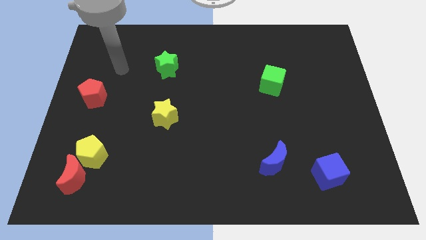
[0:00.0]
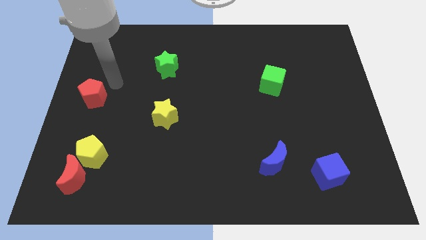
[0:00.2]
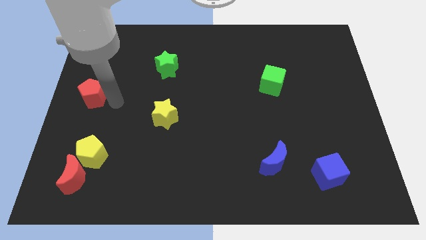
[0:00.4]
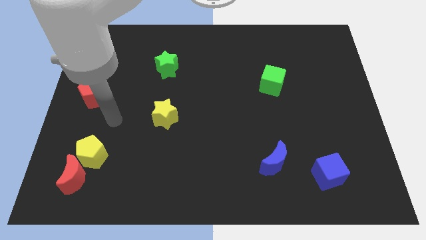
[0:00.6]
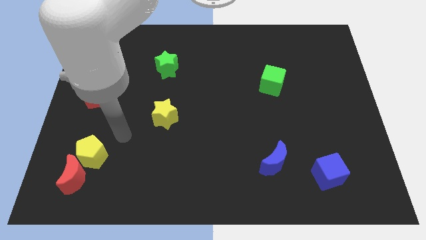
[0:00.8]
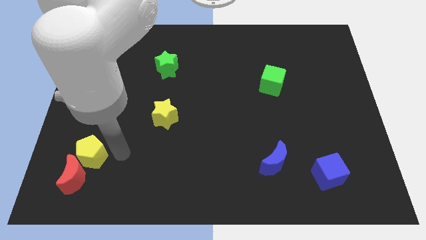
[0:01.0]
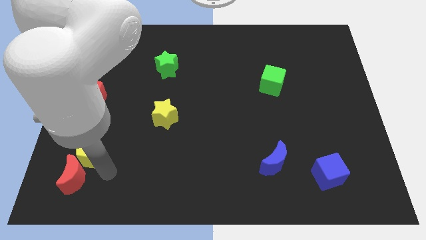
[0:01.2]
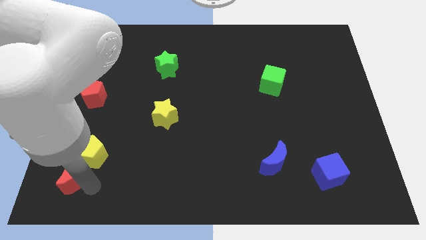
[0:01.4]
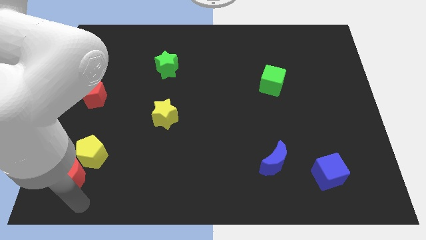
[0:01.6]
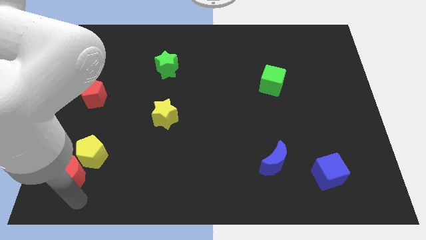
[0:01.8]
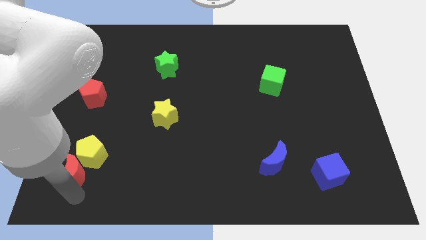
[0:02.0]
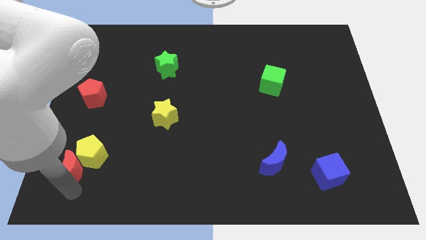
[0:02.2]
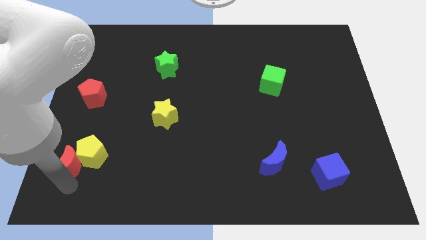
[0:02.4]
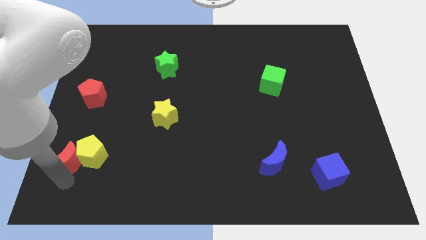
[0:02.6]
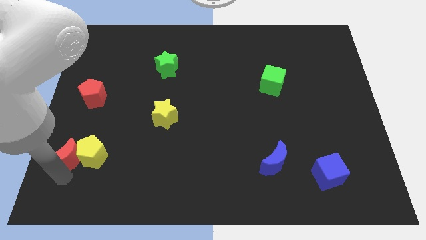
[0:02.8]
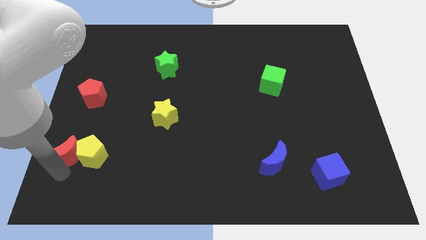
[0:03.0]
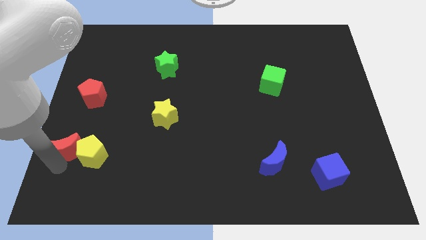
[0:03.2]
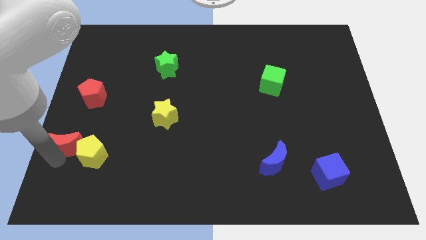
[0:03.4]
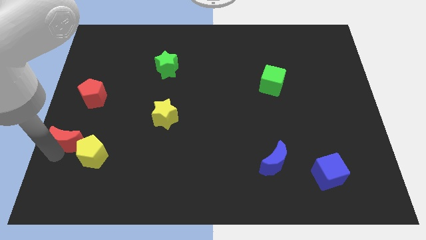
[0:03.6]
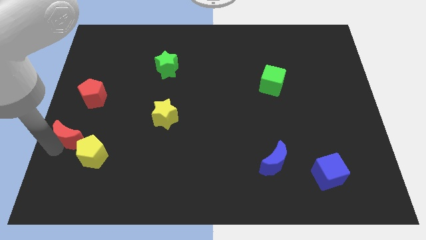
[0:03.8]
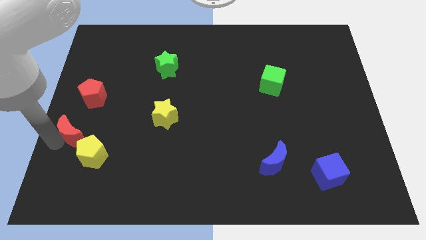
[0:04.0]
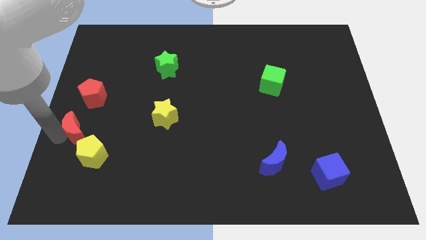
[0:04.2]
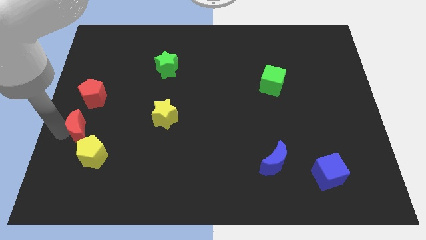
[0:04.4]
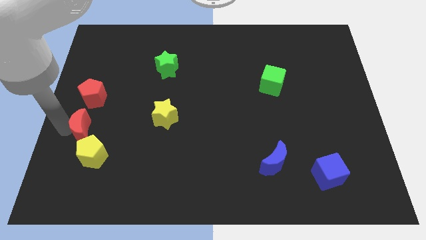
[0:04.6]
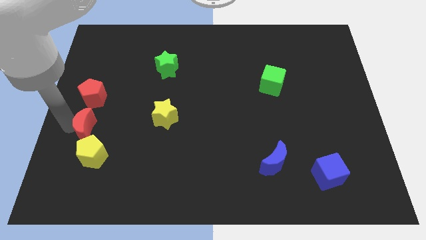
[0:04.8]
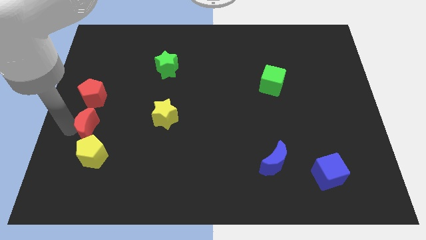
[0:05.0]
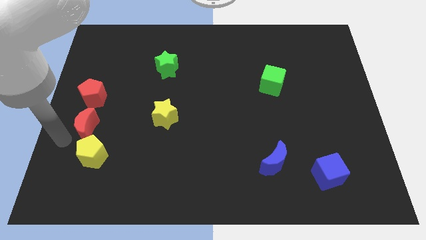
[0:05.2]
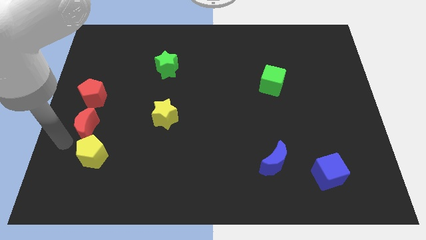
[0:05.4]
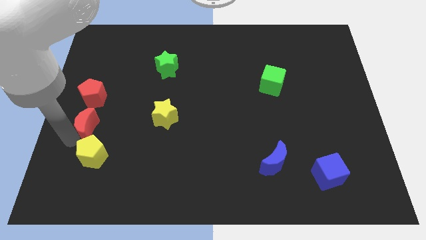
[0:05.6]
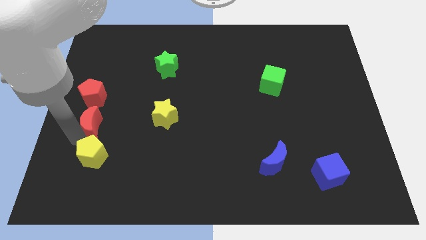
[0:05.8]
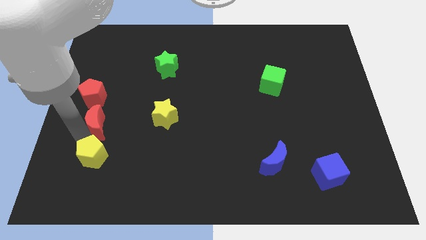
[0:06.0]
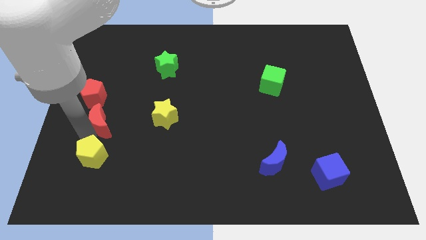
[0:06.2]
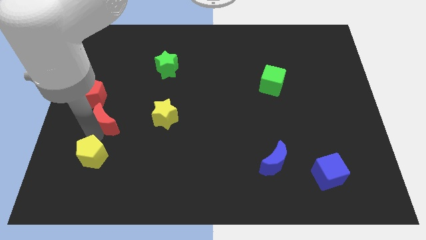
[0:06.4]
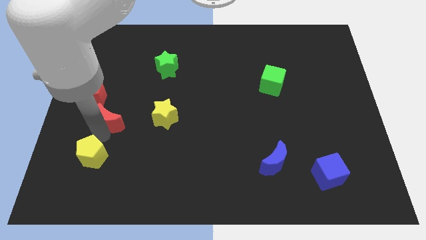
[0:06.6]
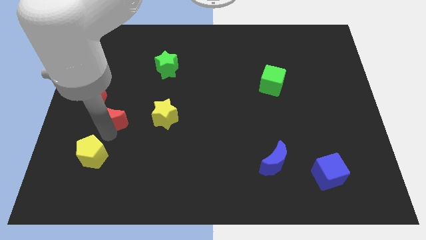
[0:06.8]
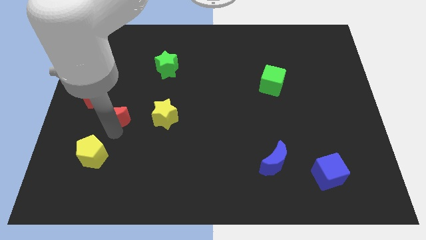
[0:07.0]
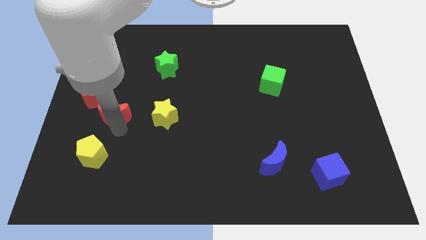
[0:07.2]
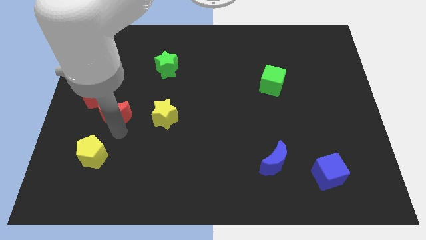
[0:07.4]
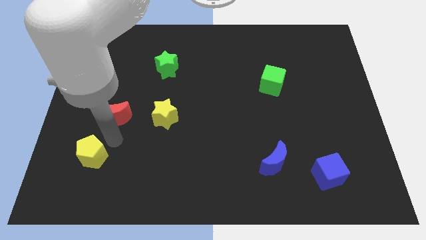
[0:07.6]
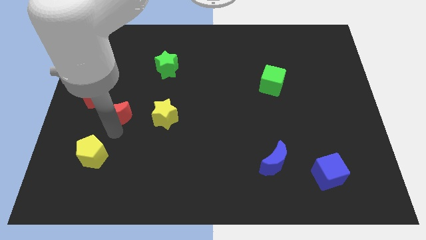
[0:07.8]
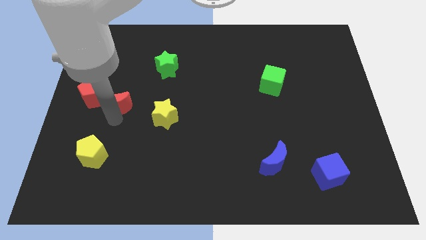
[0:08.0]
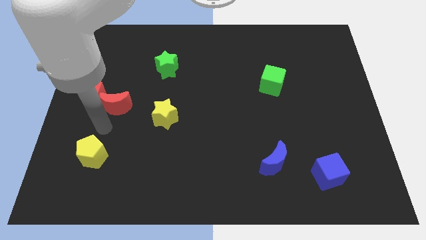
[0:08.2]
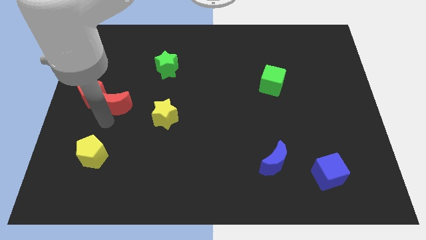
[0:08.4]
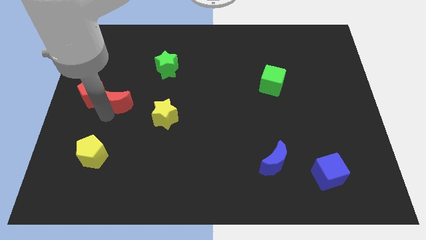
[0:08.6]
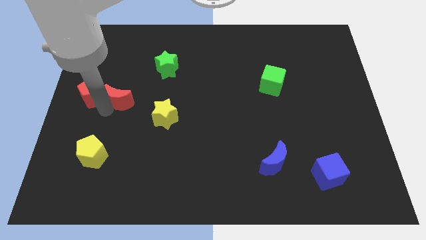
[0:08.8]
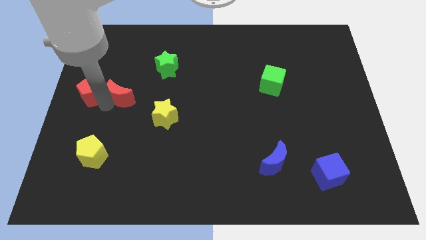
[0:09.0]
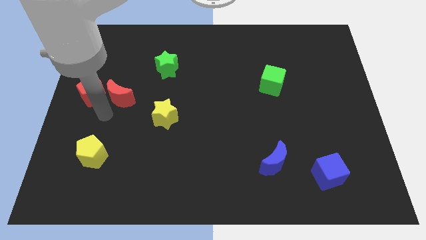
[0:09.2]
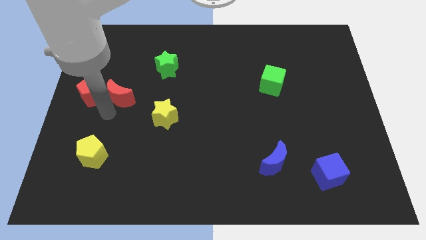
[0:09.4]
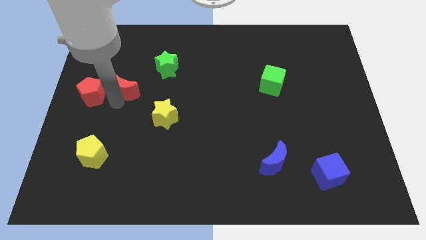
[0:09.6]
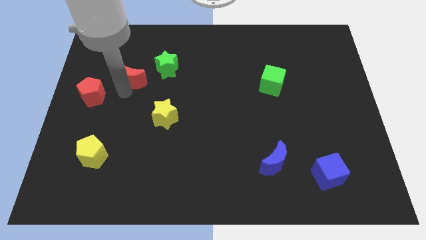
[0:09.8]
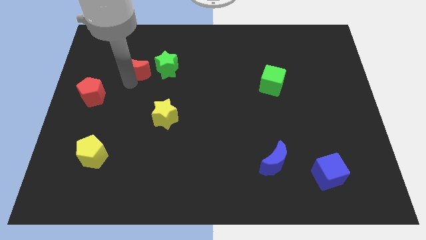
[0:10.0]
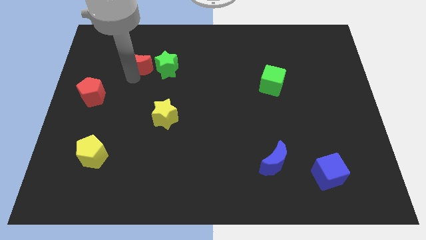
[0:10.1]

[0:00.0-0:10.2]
push the red moon to the top left side of the green star

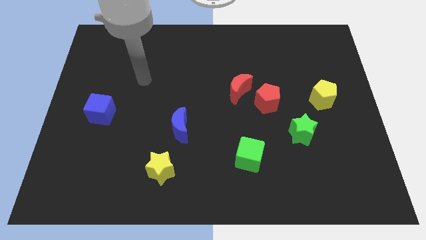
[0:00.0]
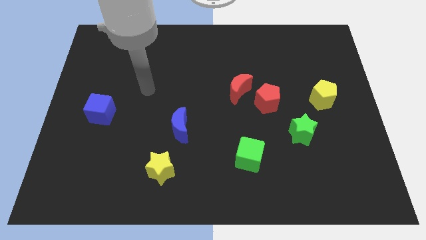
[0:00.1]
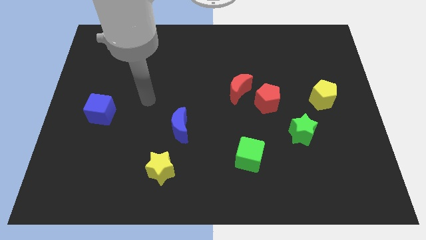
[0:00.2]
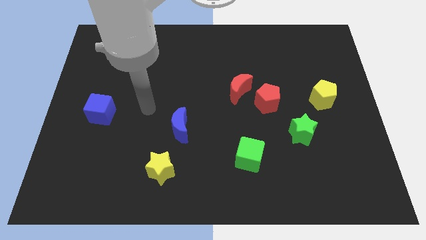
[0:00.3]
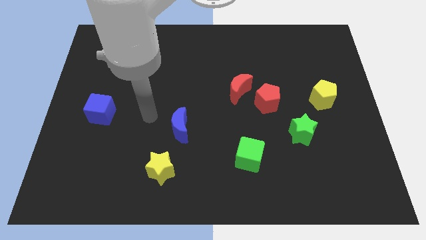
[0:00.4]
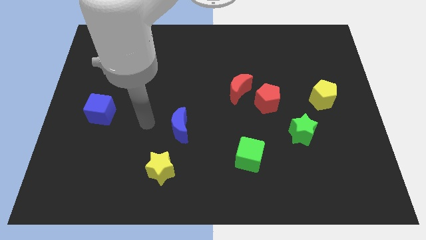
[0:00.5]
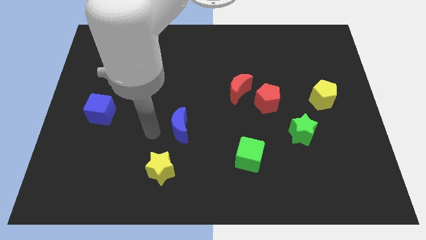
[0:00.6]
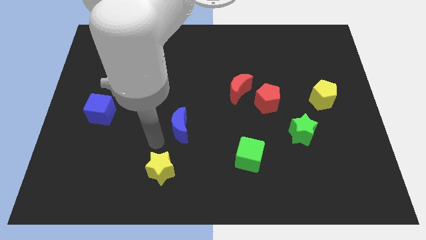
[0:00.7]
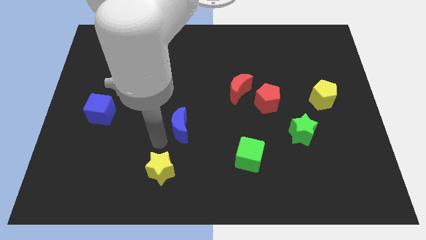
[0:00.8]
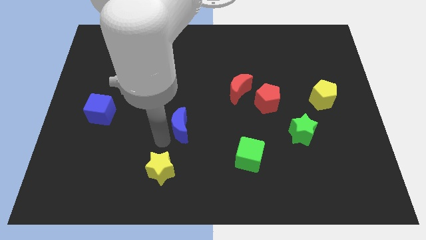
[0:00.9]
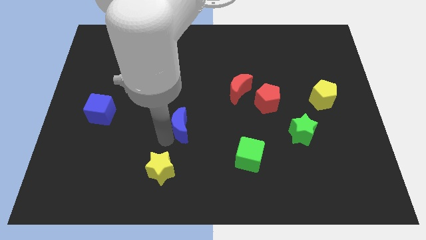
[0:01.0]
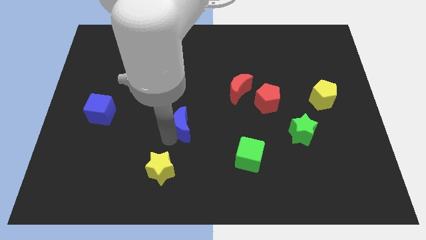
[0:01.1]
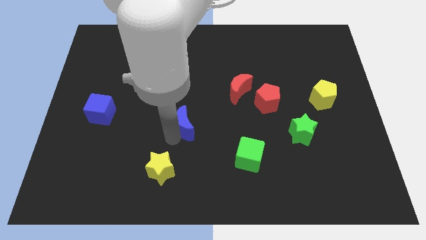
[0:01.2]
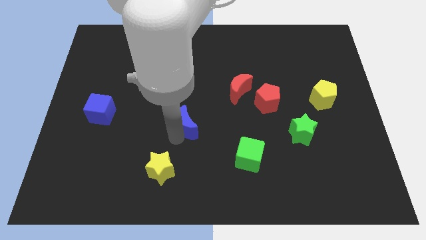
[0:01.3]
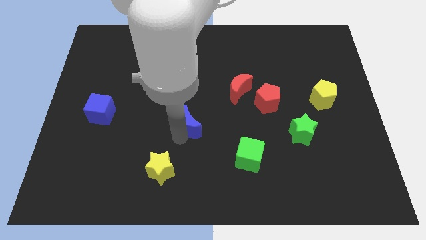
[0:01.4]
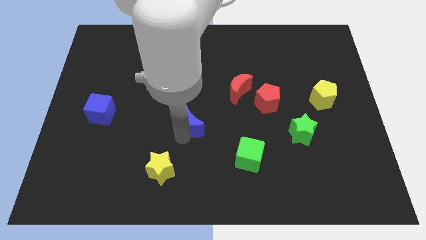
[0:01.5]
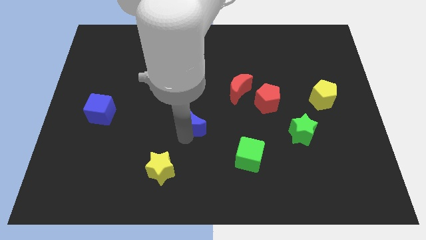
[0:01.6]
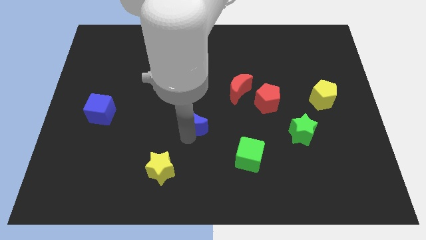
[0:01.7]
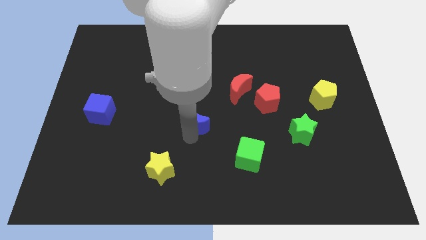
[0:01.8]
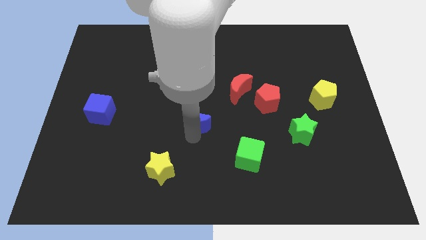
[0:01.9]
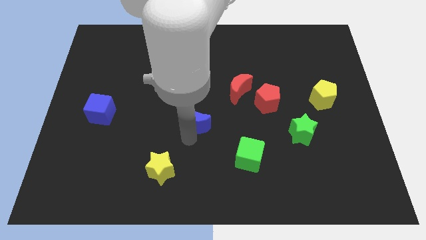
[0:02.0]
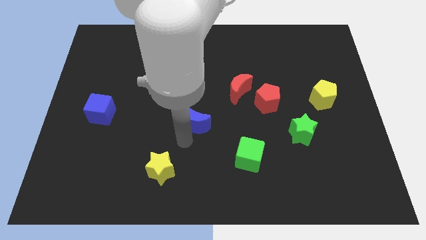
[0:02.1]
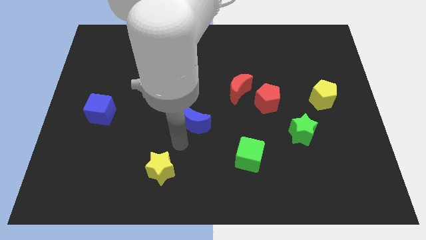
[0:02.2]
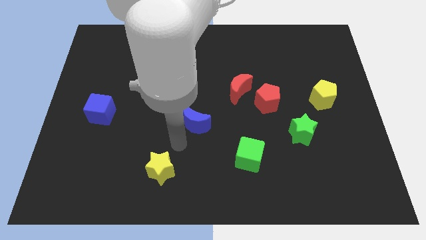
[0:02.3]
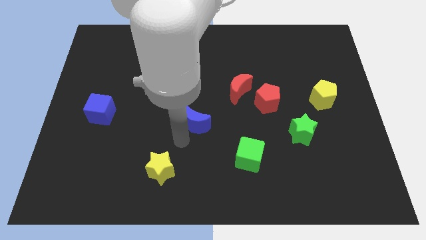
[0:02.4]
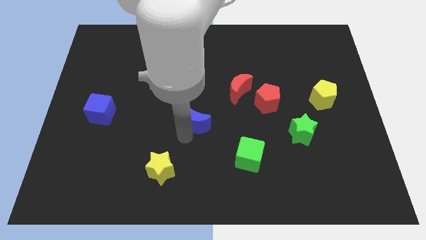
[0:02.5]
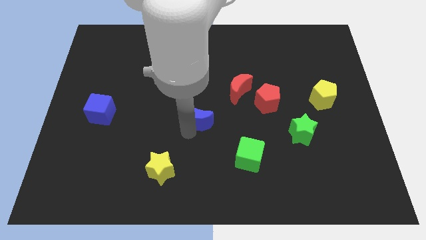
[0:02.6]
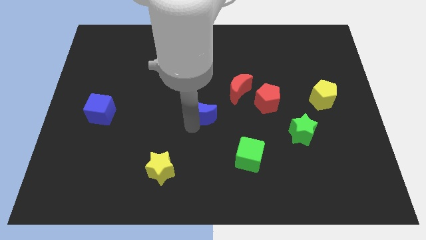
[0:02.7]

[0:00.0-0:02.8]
push the blue moon diagonally down and to the left of the red moon
